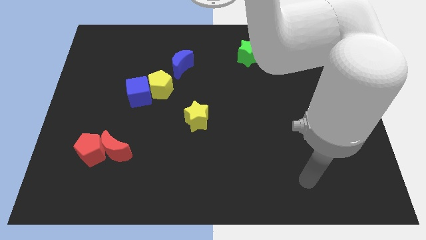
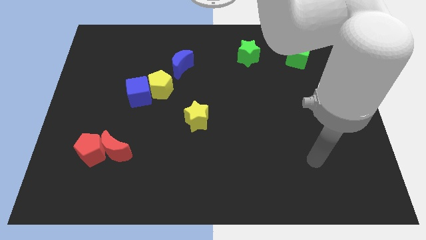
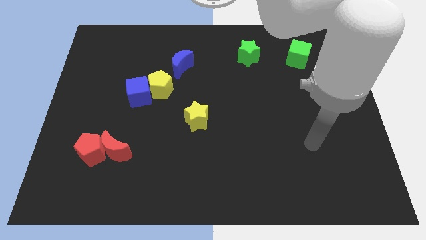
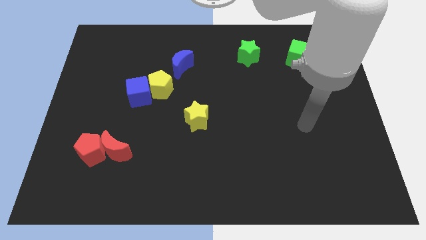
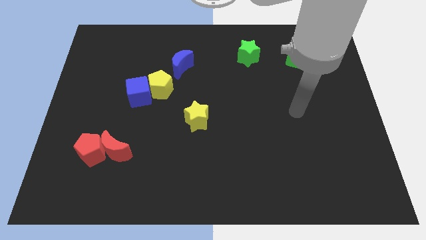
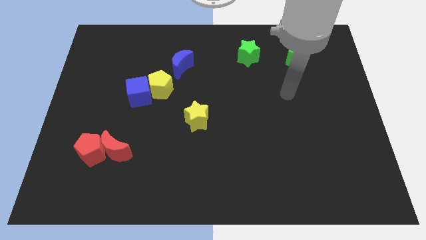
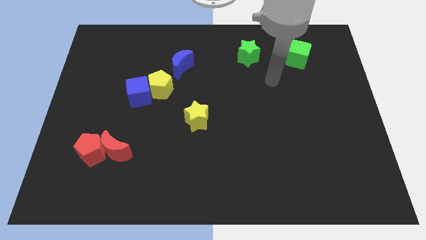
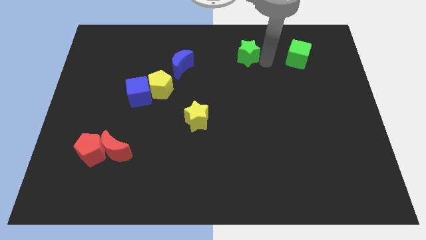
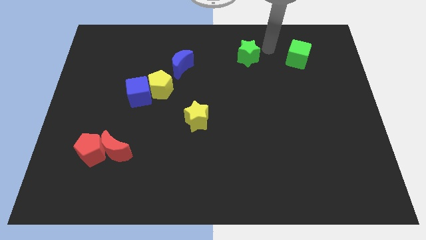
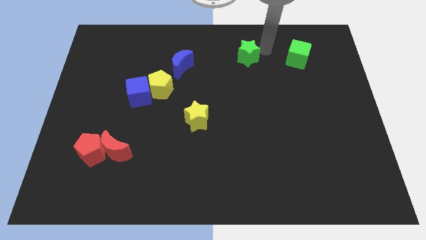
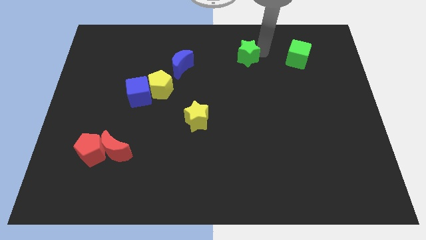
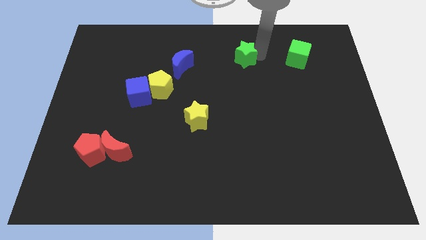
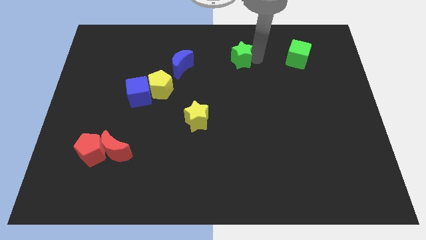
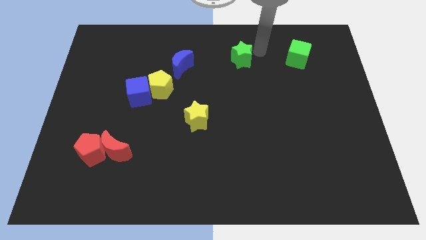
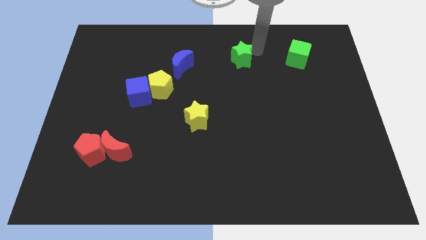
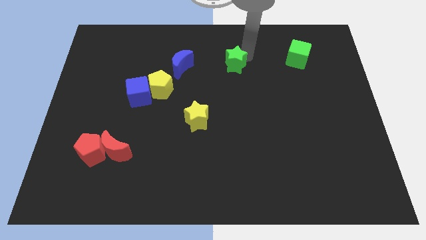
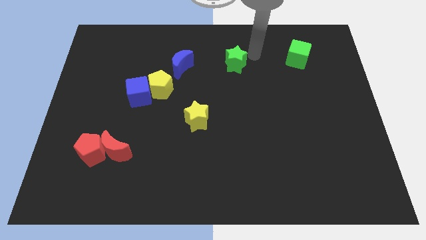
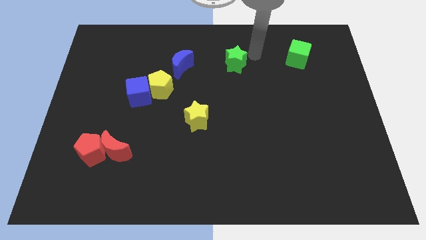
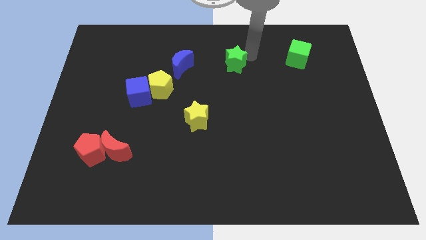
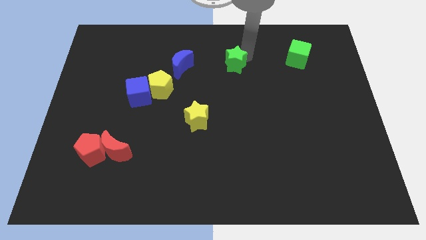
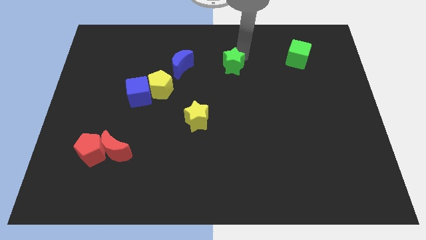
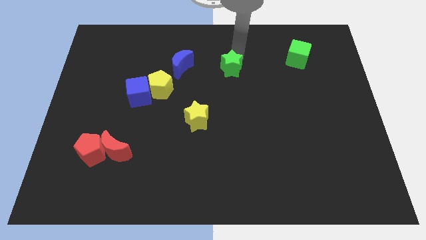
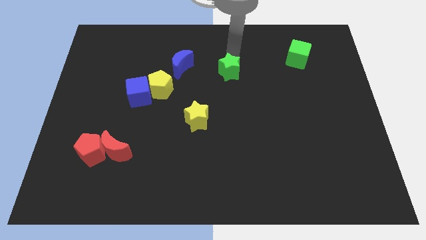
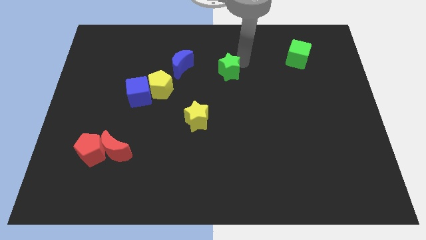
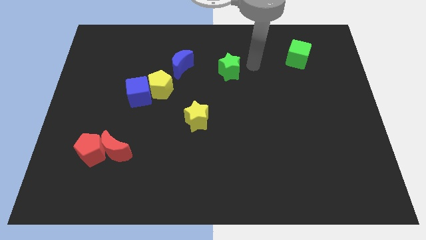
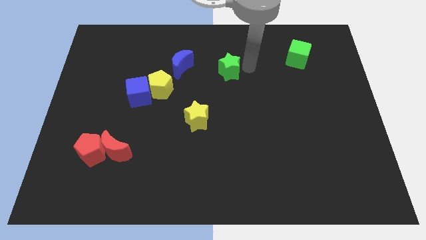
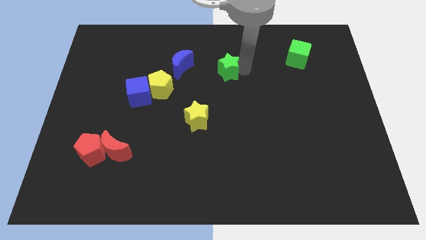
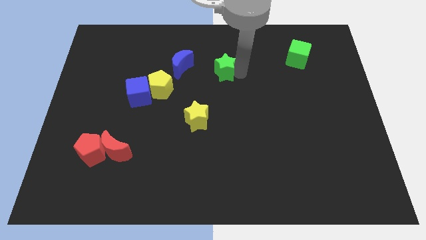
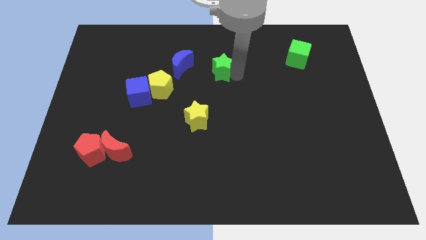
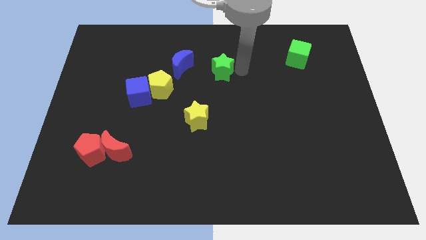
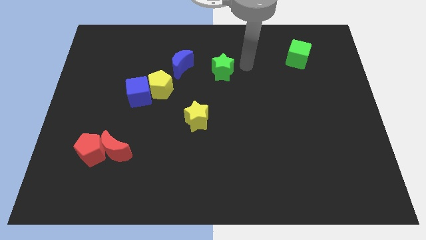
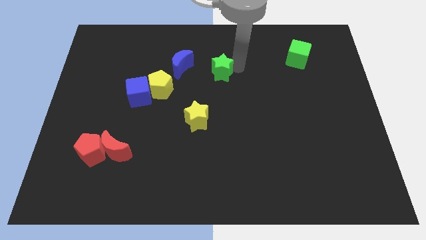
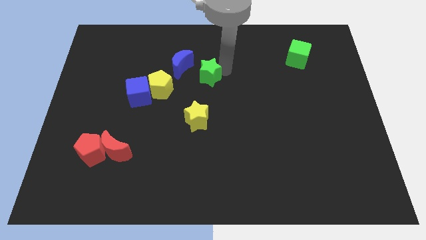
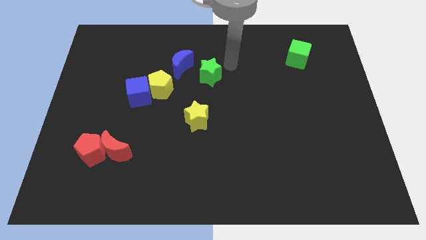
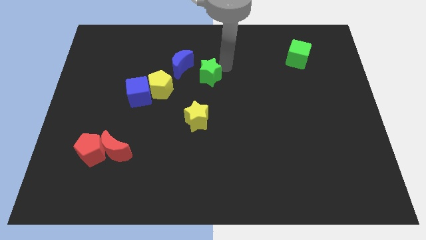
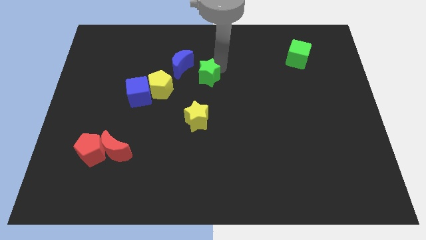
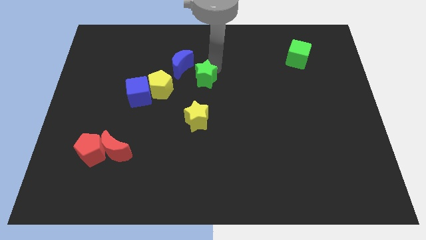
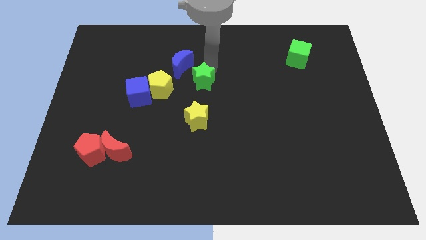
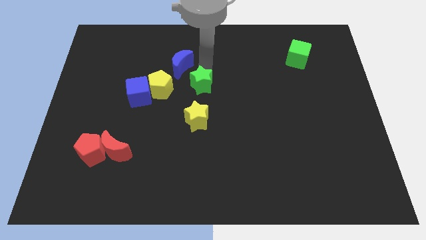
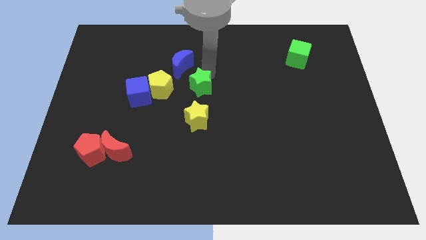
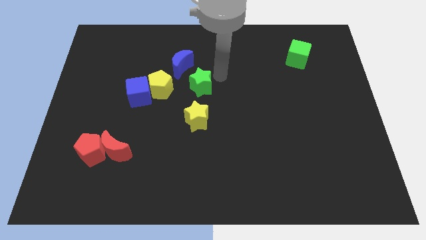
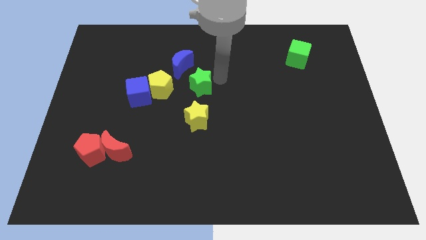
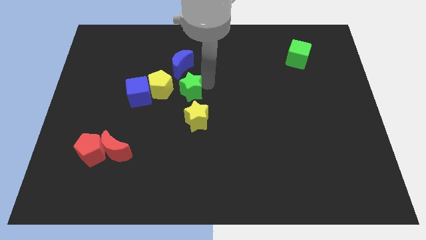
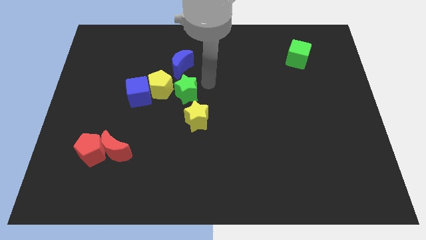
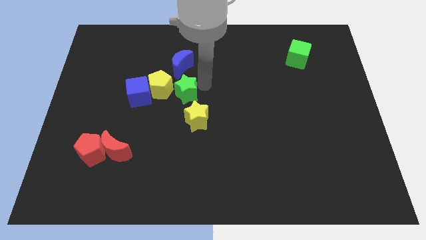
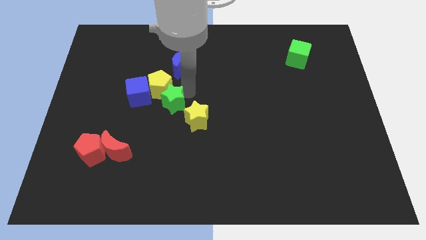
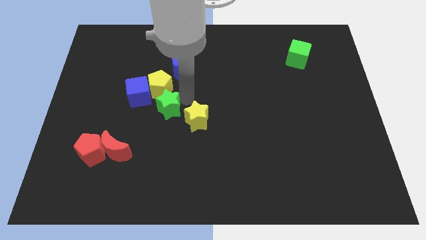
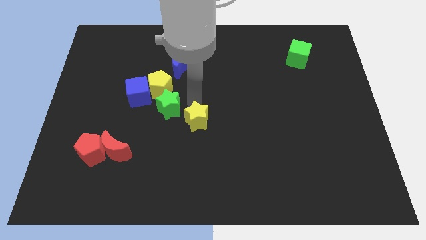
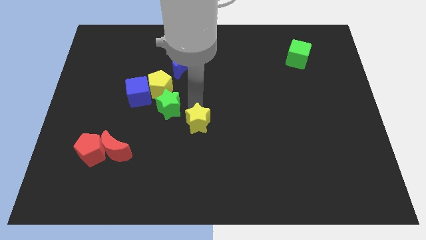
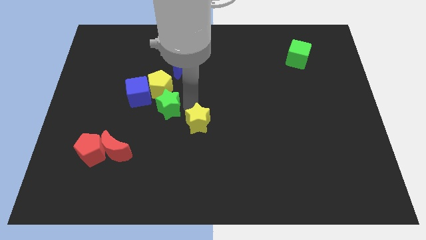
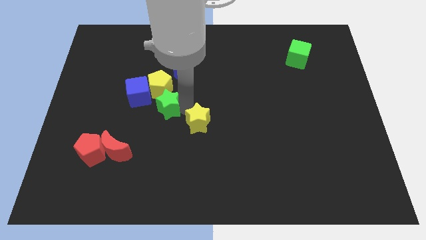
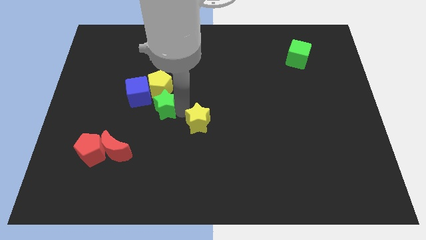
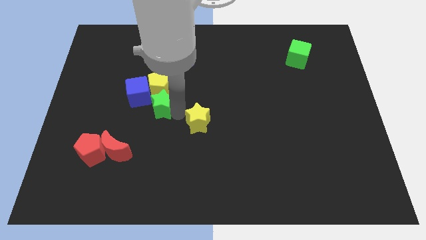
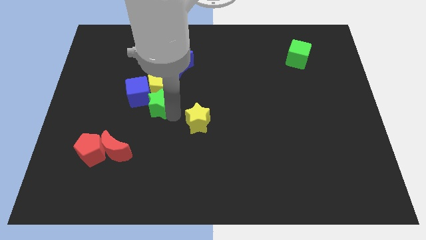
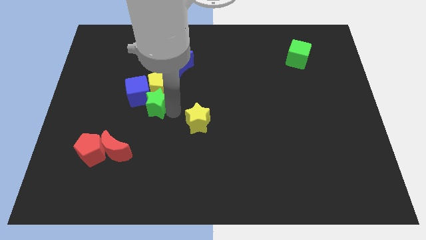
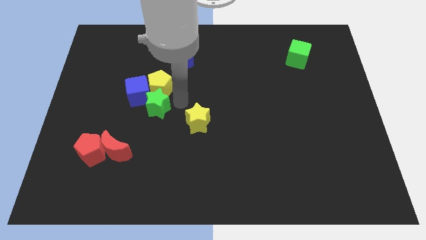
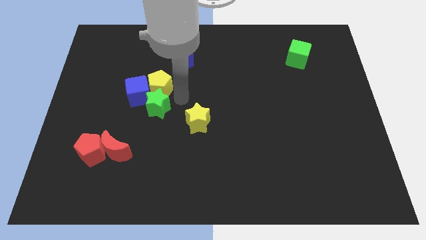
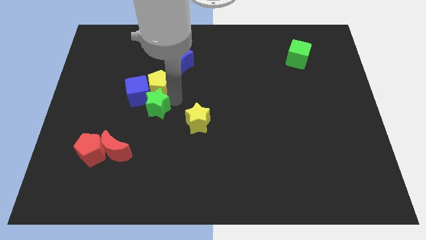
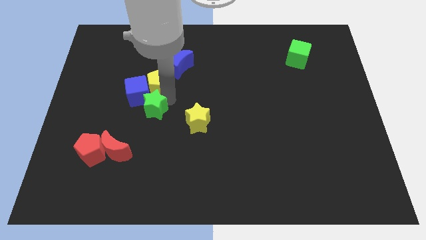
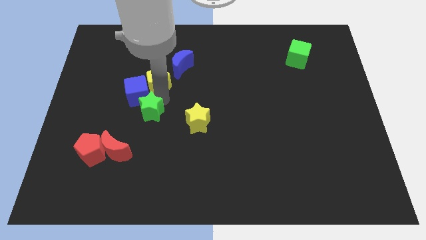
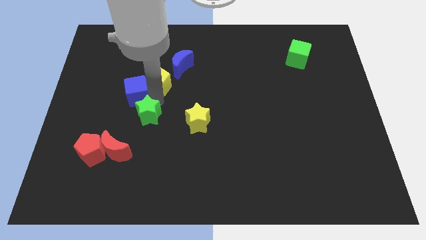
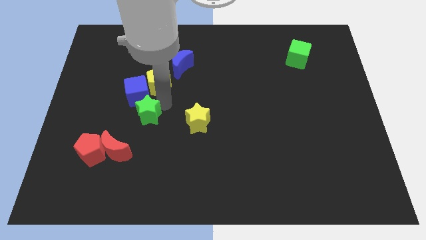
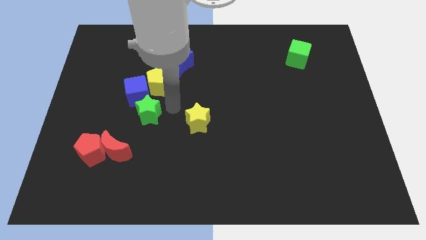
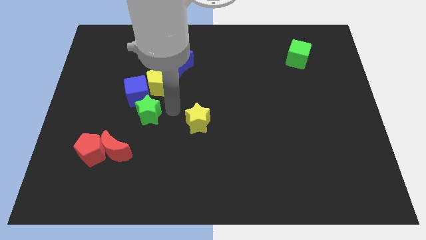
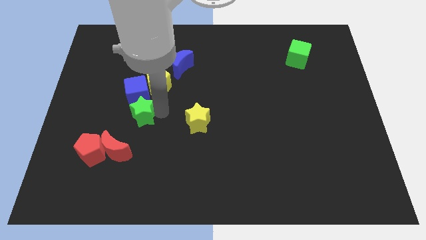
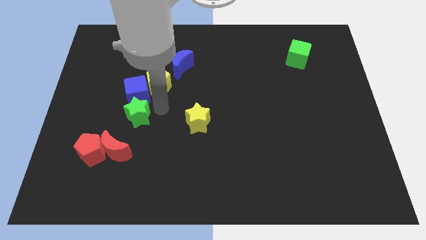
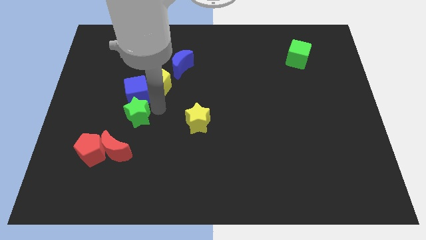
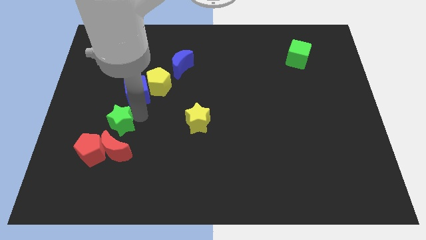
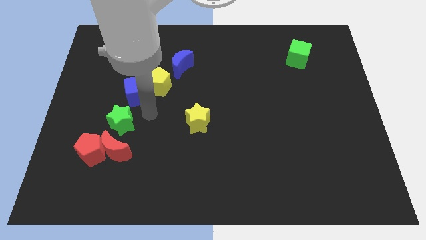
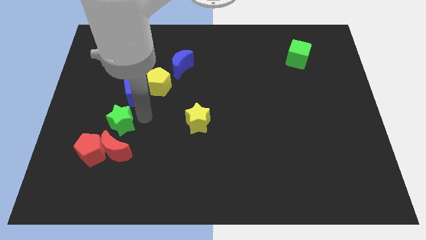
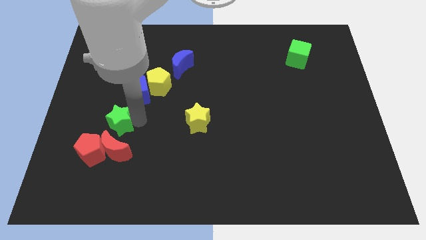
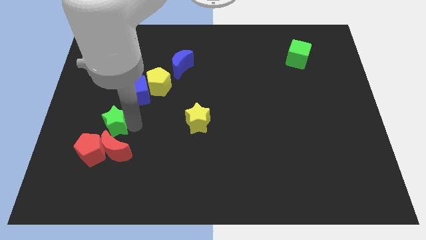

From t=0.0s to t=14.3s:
push the green star diagonally up and to the left of the red moon
